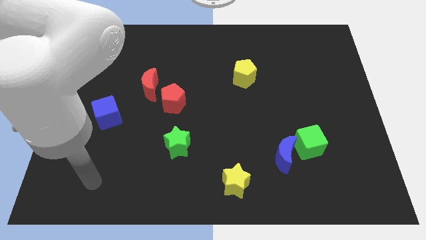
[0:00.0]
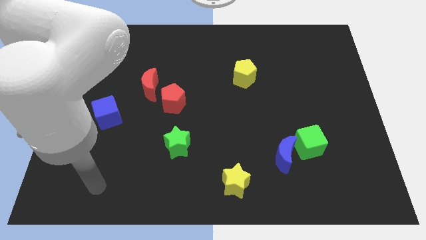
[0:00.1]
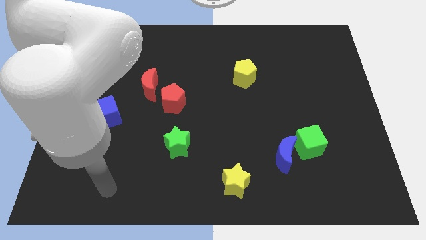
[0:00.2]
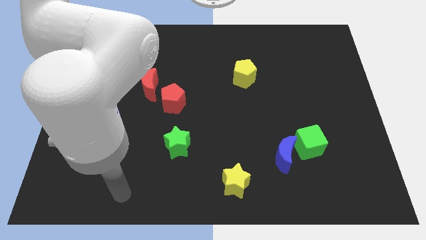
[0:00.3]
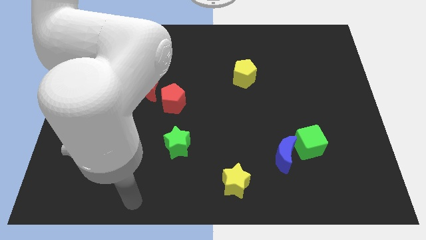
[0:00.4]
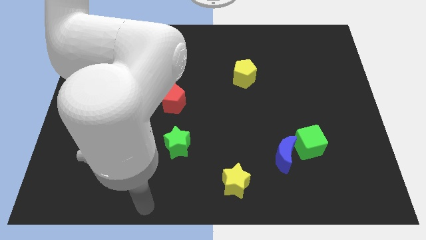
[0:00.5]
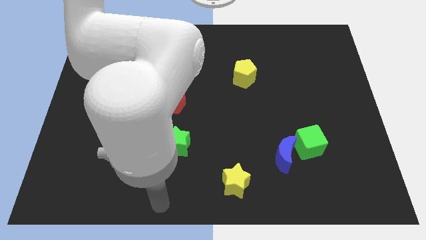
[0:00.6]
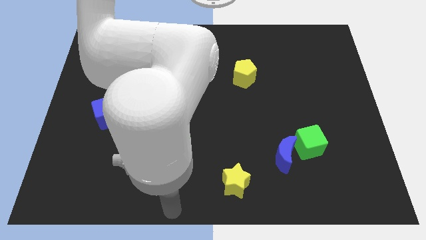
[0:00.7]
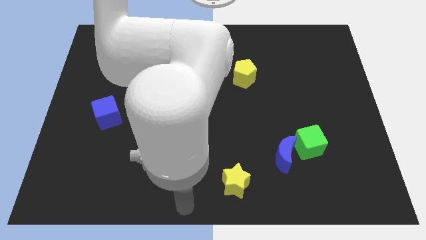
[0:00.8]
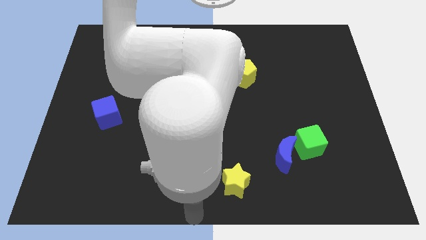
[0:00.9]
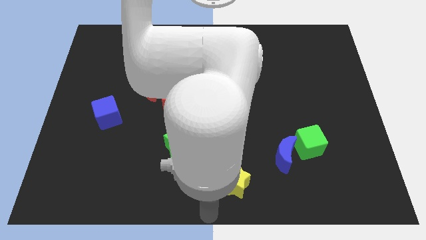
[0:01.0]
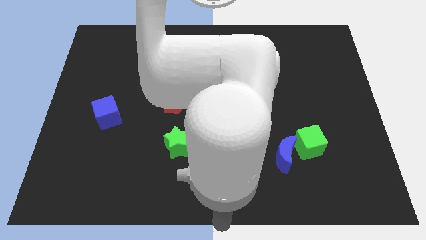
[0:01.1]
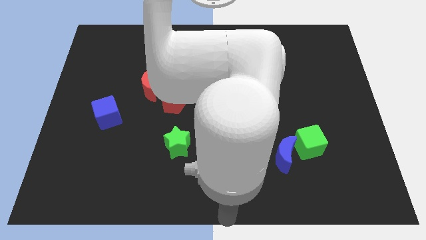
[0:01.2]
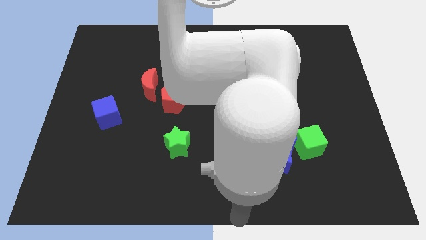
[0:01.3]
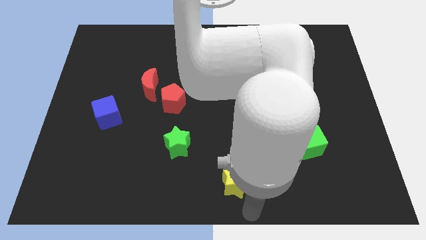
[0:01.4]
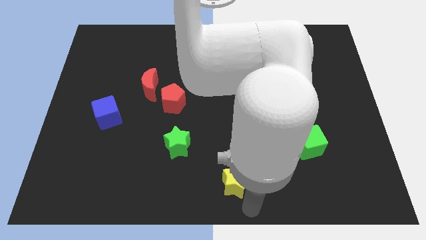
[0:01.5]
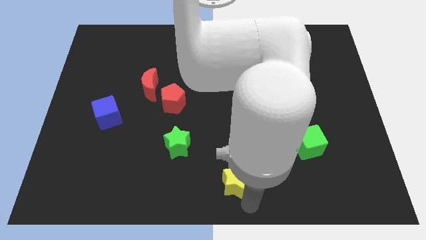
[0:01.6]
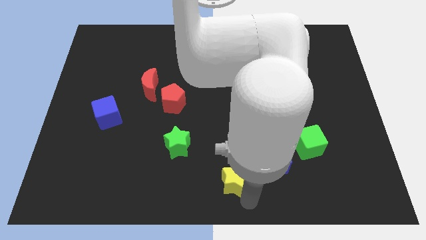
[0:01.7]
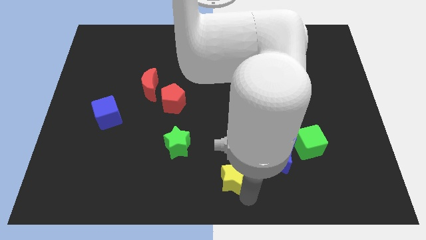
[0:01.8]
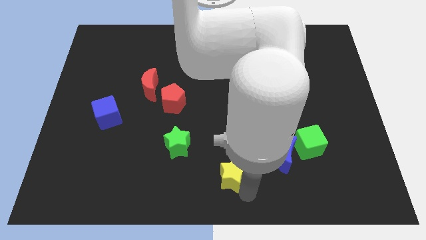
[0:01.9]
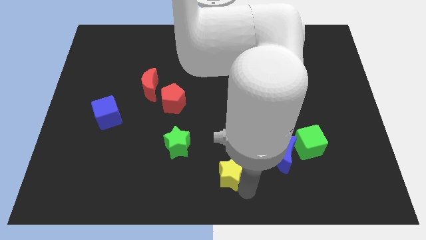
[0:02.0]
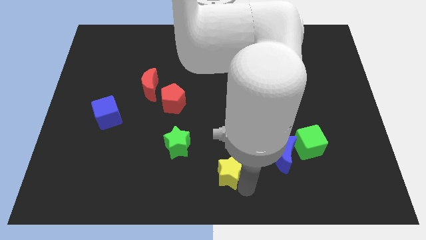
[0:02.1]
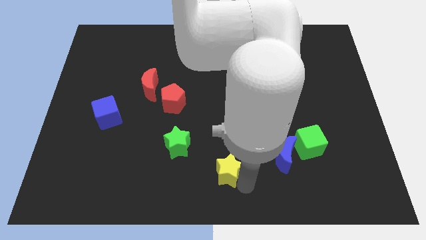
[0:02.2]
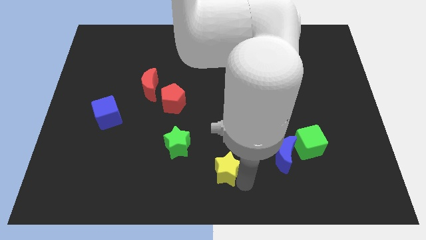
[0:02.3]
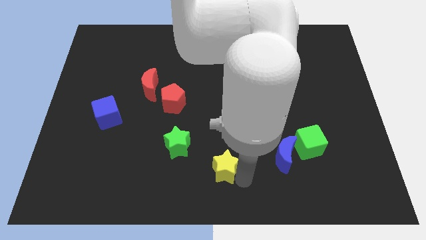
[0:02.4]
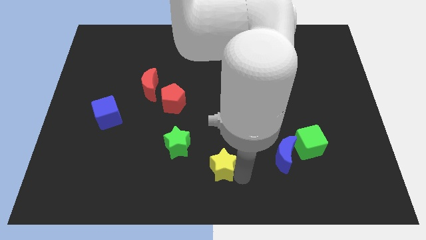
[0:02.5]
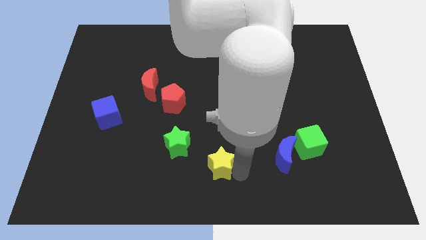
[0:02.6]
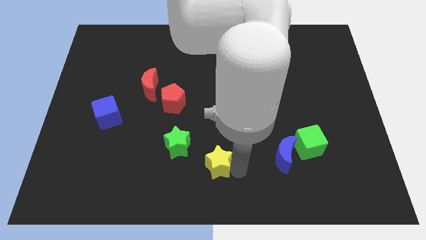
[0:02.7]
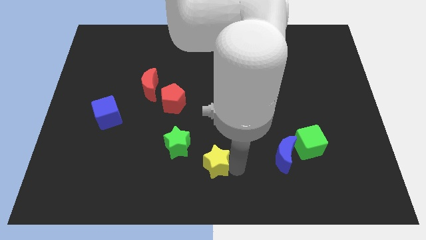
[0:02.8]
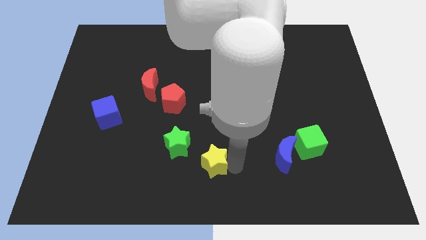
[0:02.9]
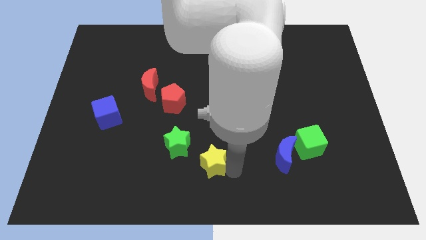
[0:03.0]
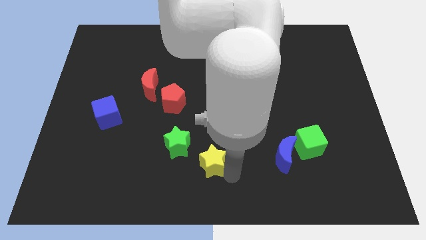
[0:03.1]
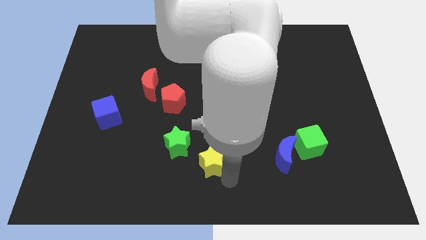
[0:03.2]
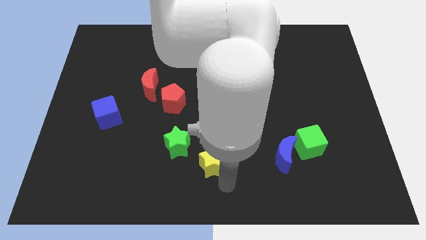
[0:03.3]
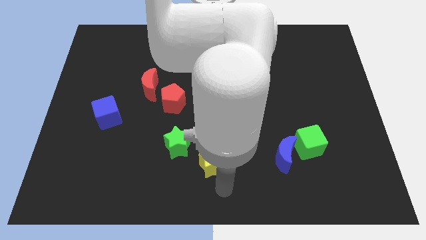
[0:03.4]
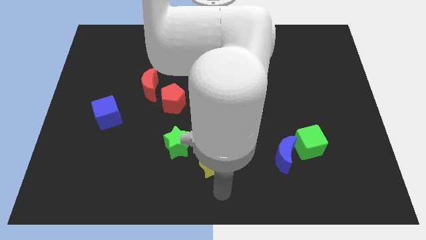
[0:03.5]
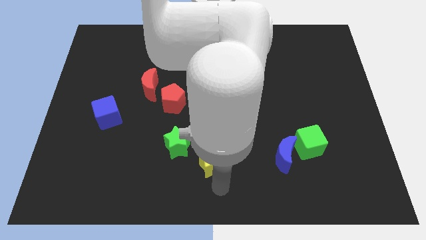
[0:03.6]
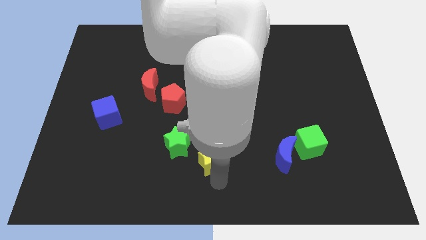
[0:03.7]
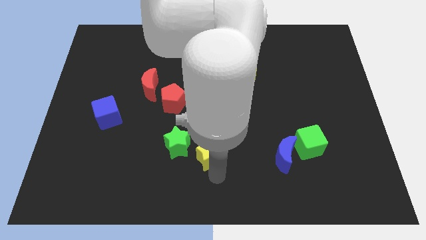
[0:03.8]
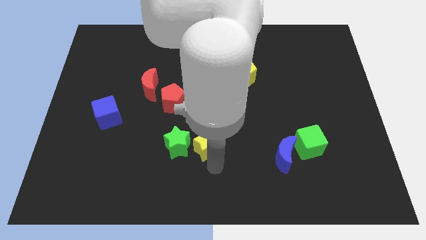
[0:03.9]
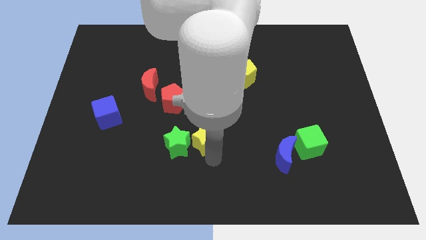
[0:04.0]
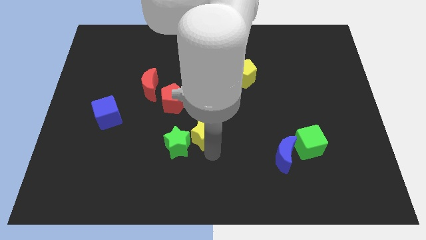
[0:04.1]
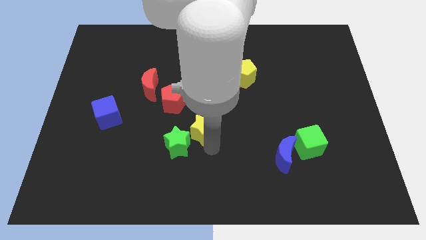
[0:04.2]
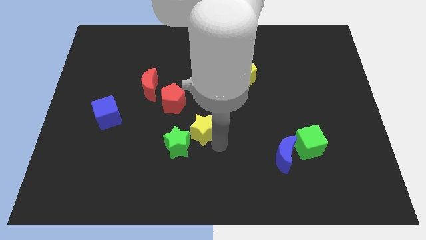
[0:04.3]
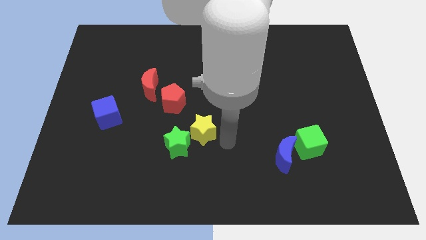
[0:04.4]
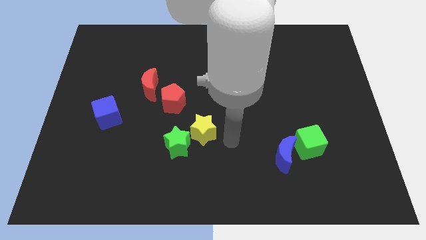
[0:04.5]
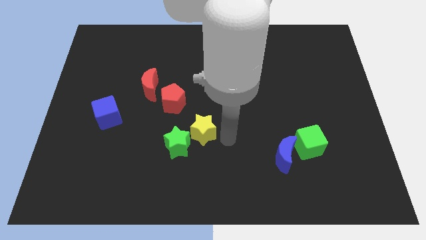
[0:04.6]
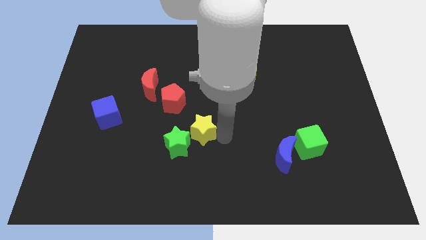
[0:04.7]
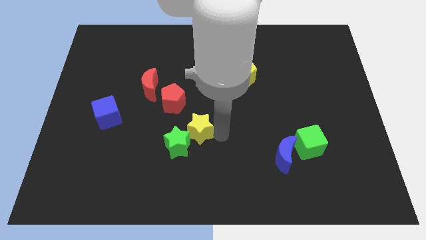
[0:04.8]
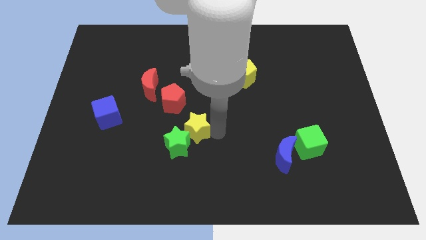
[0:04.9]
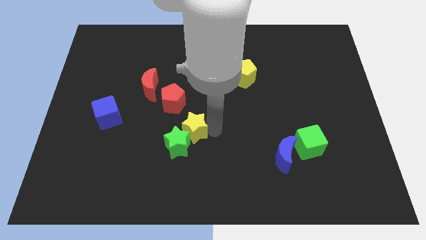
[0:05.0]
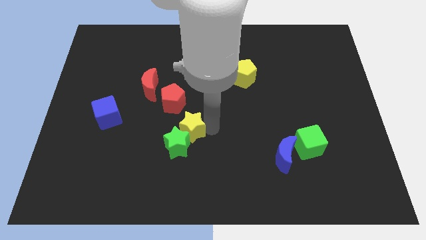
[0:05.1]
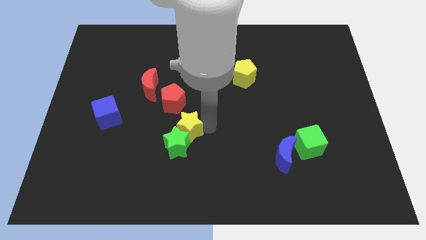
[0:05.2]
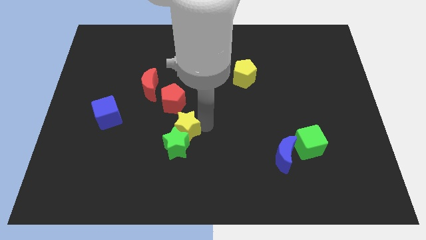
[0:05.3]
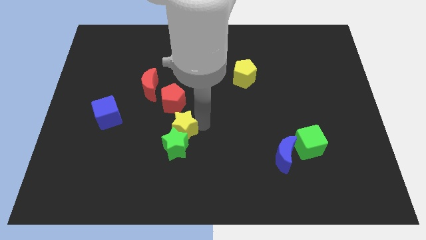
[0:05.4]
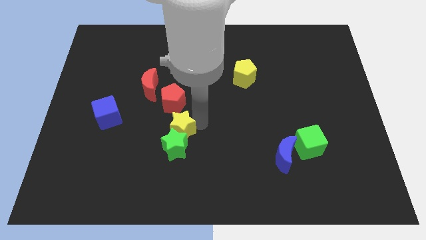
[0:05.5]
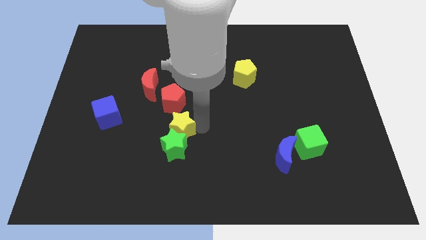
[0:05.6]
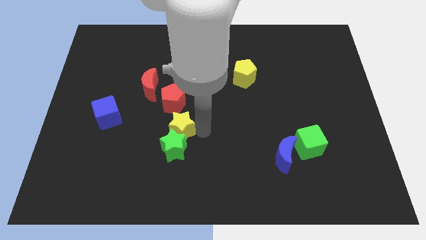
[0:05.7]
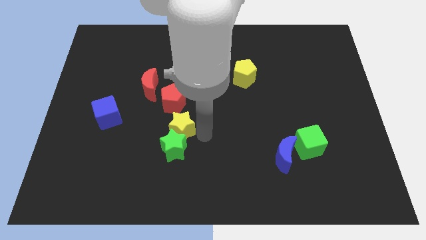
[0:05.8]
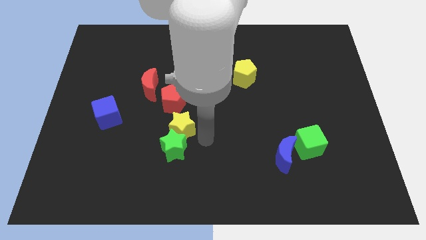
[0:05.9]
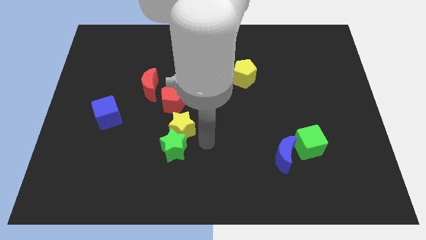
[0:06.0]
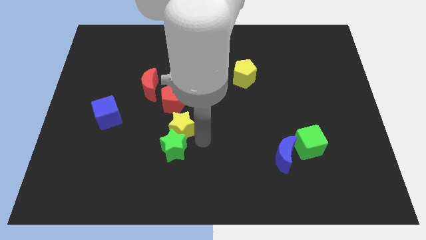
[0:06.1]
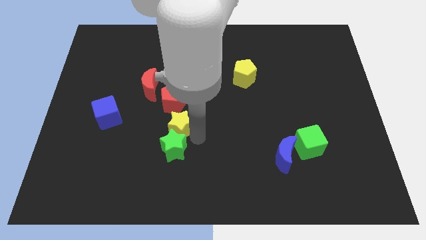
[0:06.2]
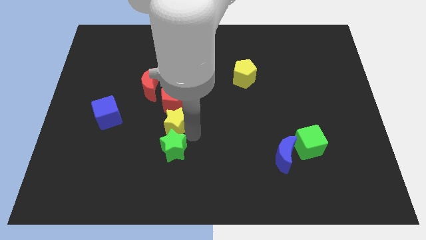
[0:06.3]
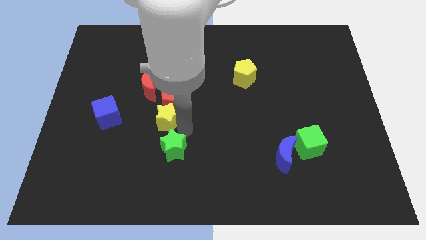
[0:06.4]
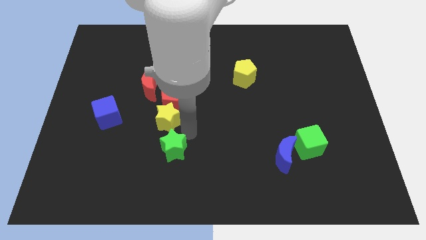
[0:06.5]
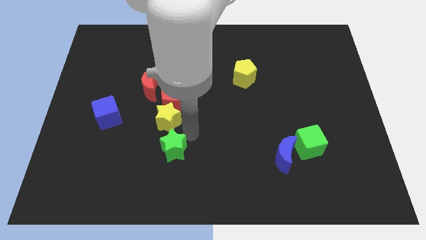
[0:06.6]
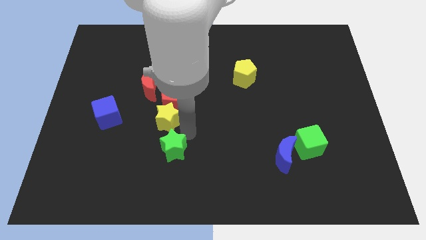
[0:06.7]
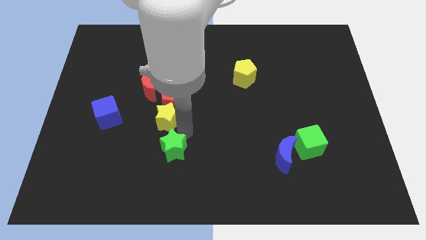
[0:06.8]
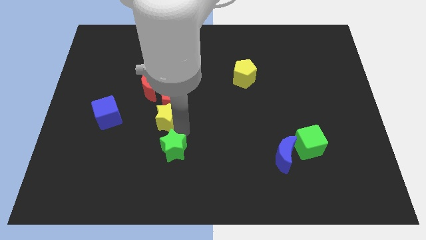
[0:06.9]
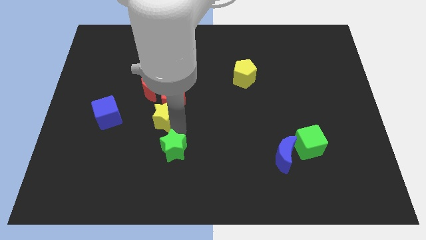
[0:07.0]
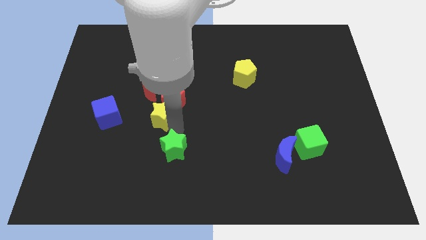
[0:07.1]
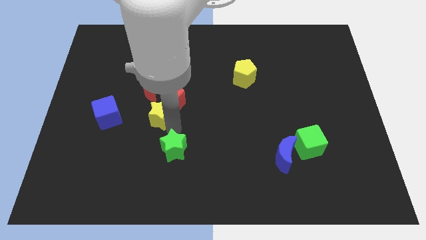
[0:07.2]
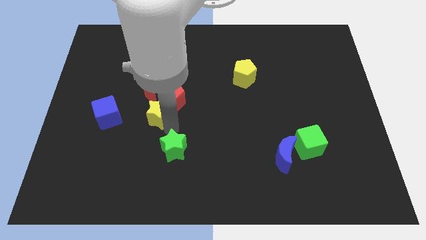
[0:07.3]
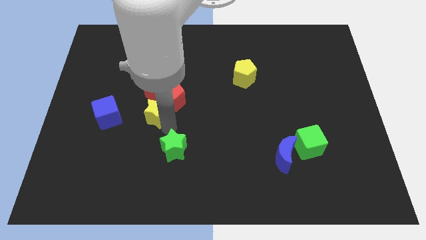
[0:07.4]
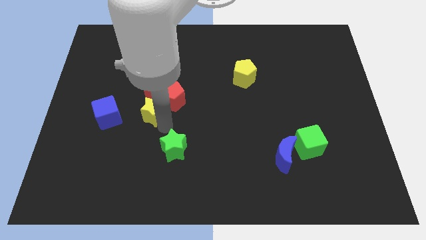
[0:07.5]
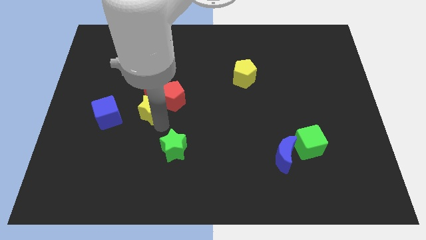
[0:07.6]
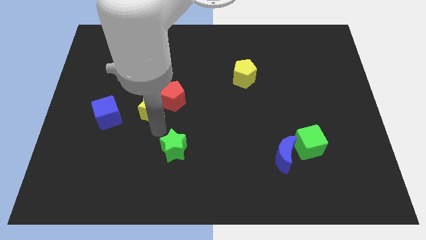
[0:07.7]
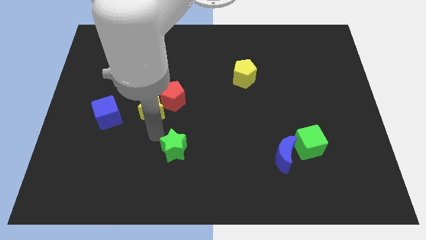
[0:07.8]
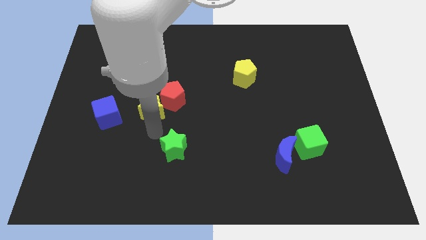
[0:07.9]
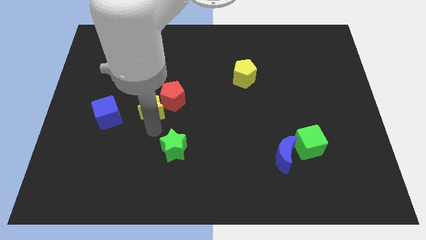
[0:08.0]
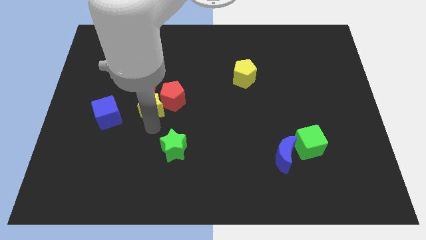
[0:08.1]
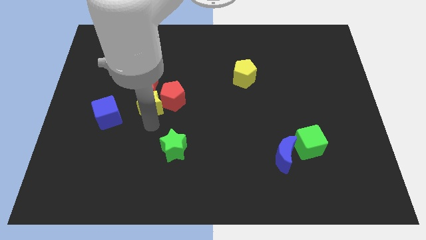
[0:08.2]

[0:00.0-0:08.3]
put the yellow star next to the red moon
